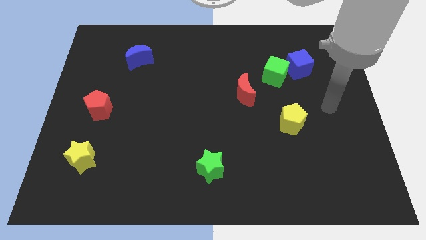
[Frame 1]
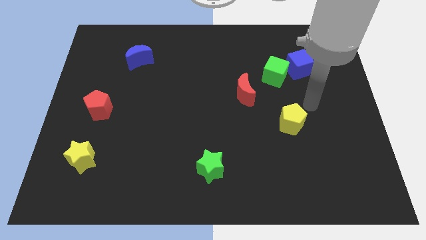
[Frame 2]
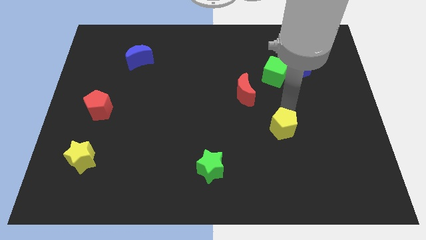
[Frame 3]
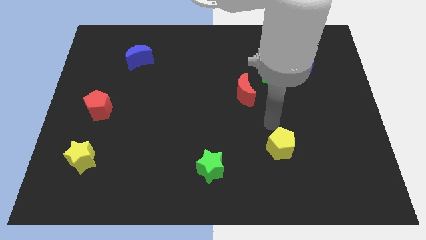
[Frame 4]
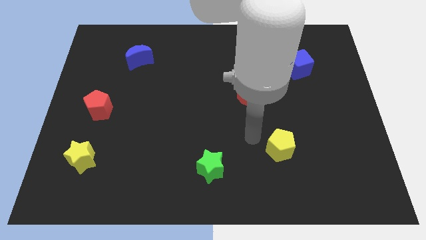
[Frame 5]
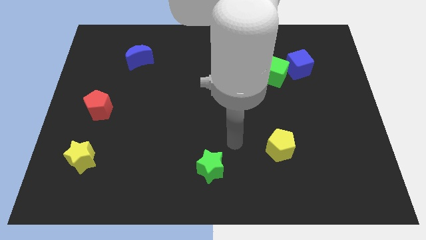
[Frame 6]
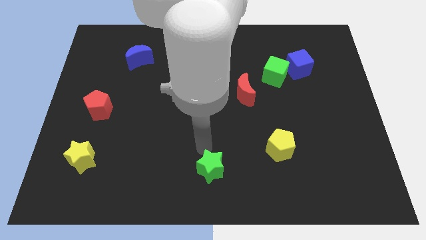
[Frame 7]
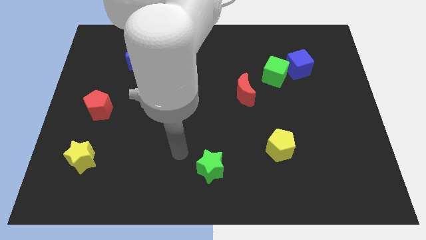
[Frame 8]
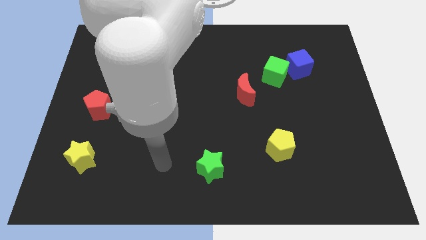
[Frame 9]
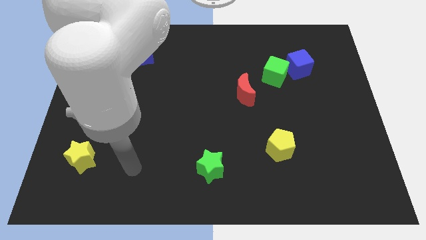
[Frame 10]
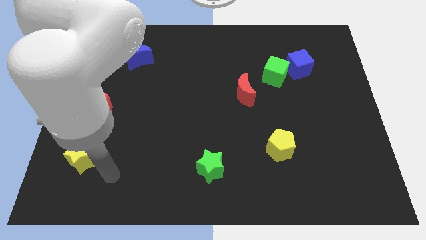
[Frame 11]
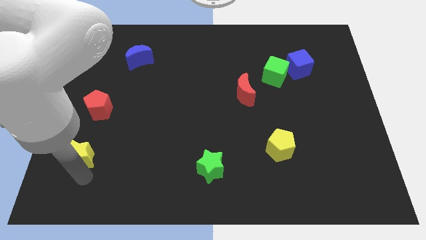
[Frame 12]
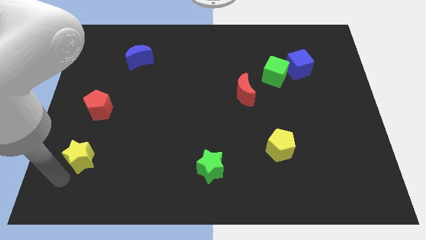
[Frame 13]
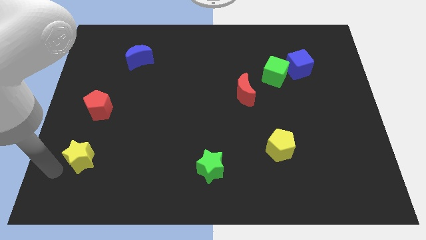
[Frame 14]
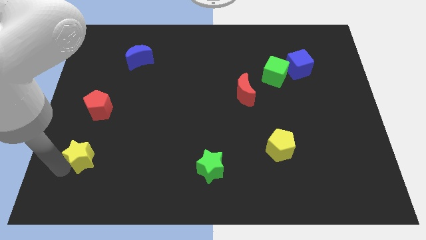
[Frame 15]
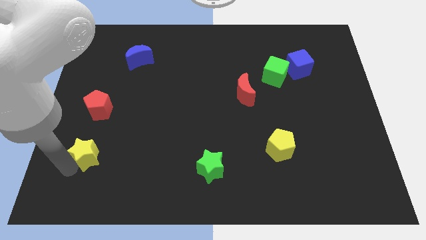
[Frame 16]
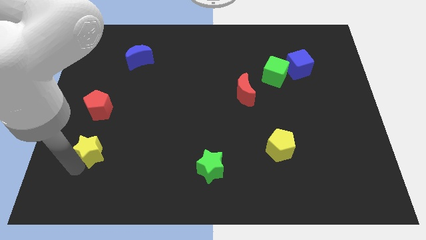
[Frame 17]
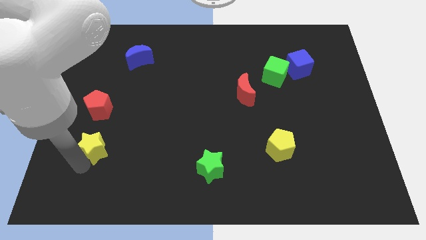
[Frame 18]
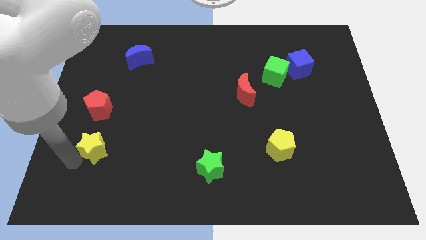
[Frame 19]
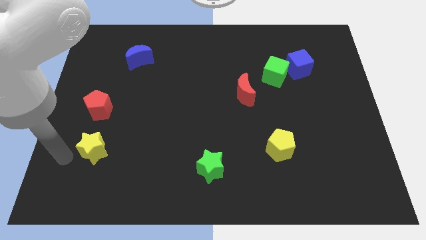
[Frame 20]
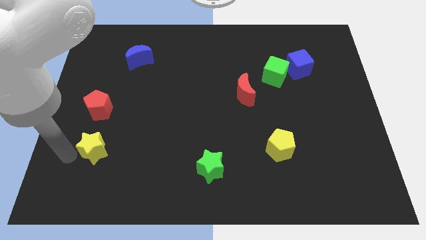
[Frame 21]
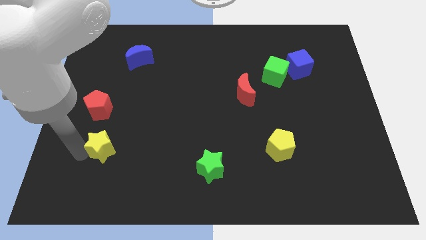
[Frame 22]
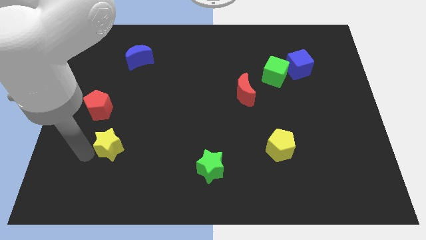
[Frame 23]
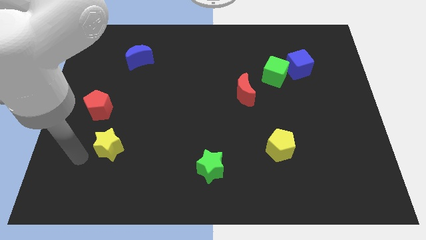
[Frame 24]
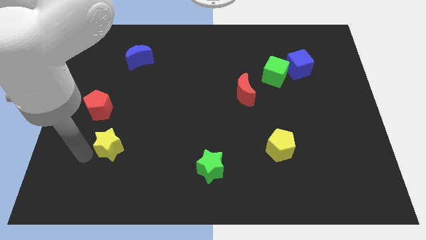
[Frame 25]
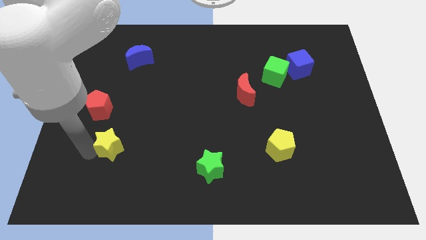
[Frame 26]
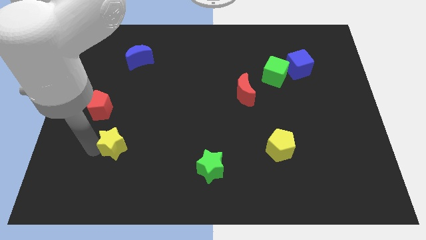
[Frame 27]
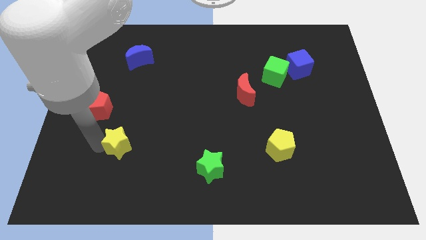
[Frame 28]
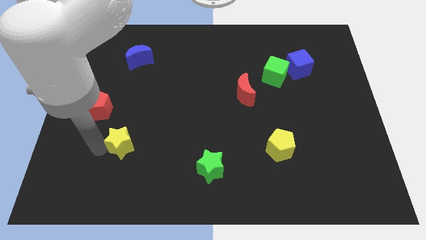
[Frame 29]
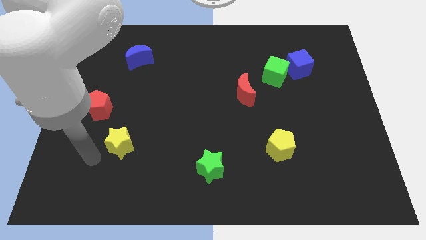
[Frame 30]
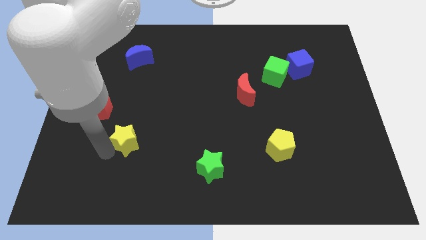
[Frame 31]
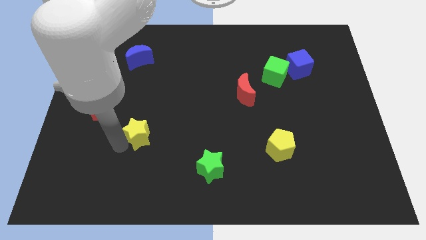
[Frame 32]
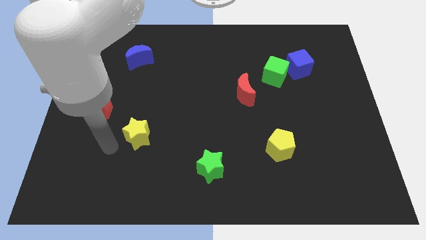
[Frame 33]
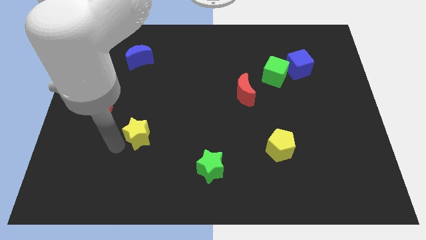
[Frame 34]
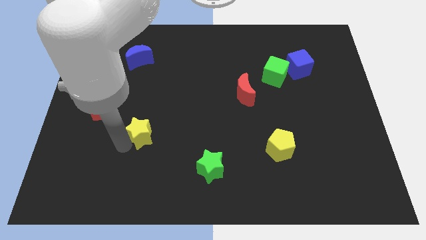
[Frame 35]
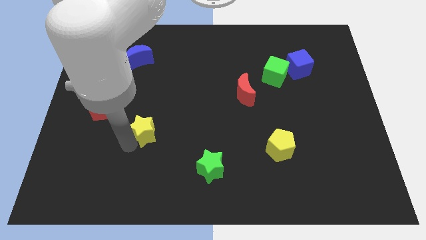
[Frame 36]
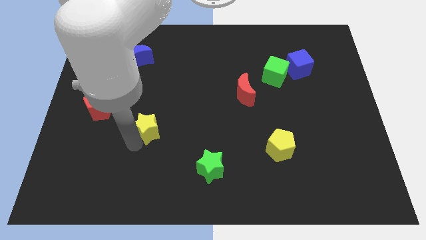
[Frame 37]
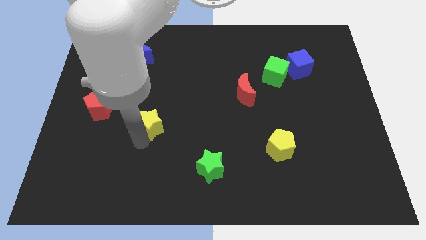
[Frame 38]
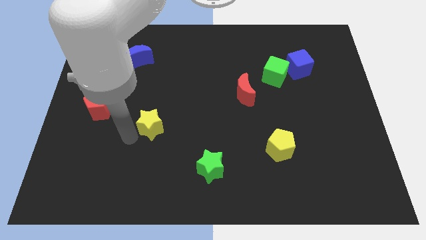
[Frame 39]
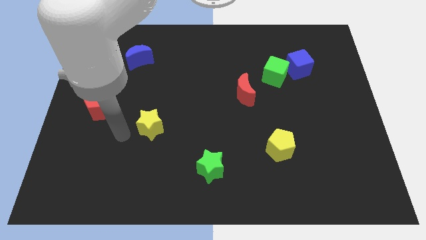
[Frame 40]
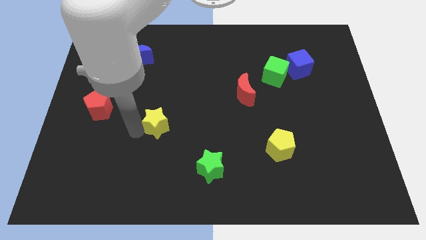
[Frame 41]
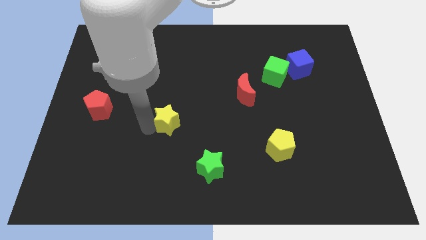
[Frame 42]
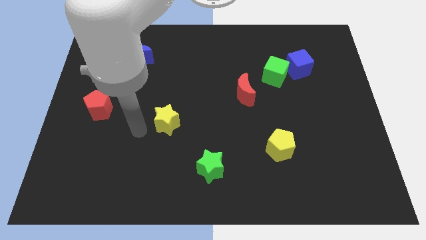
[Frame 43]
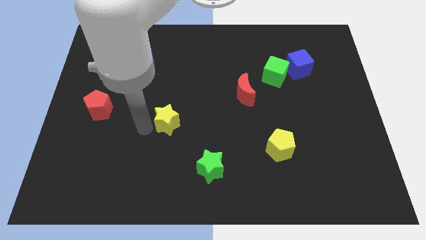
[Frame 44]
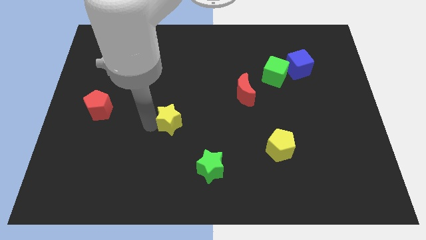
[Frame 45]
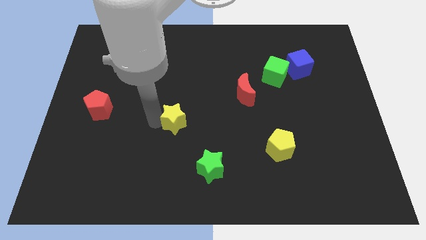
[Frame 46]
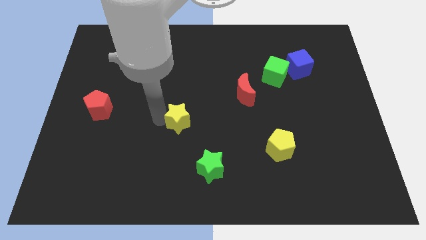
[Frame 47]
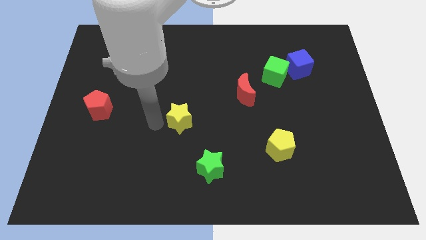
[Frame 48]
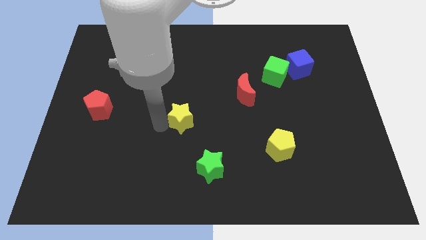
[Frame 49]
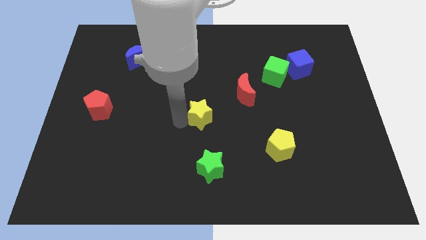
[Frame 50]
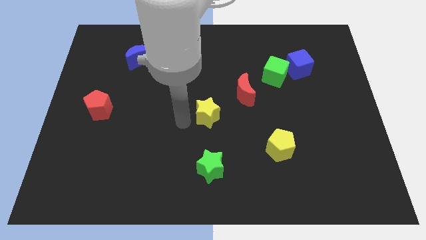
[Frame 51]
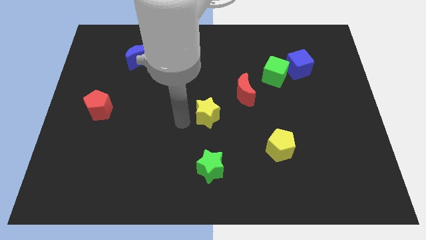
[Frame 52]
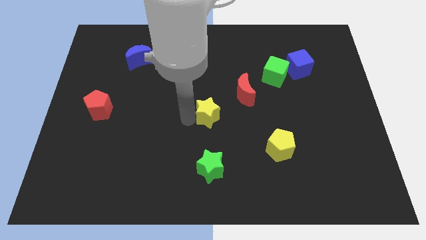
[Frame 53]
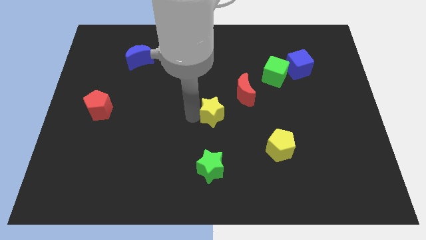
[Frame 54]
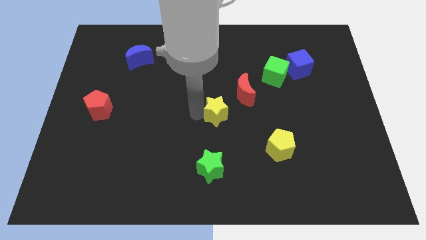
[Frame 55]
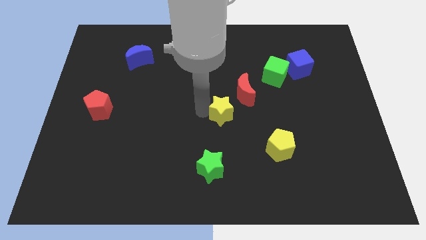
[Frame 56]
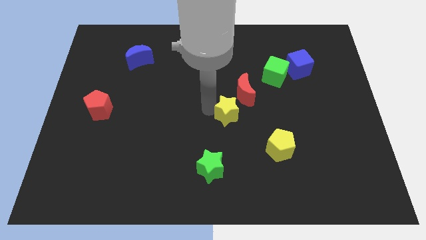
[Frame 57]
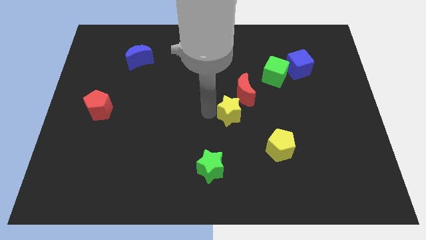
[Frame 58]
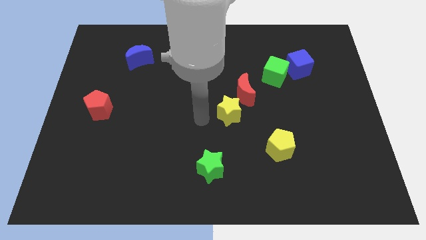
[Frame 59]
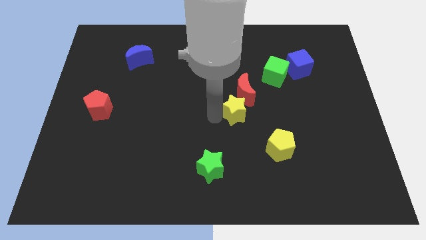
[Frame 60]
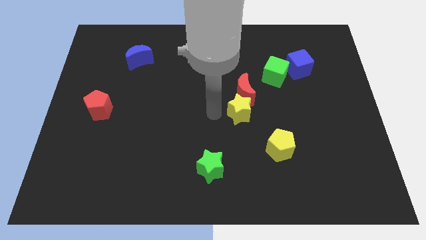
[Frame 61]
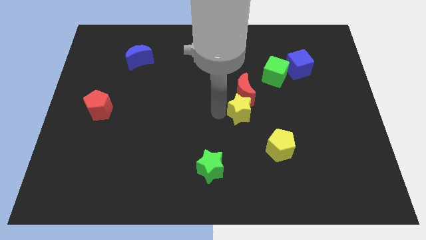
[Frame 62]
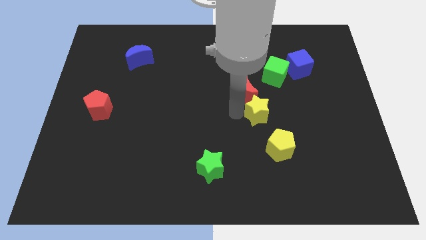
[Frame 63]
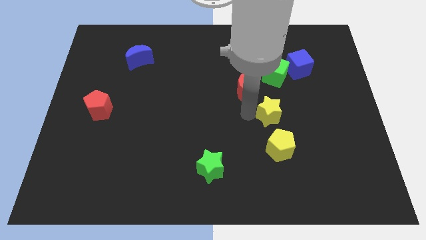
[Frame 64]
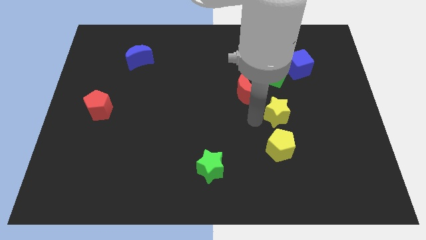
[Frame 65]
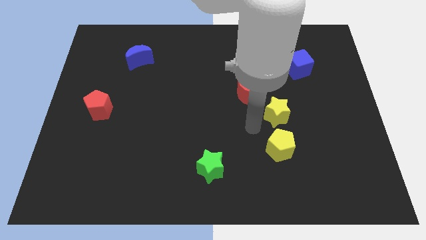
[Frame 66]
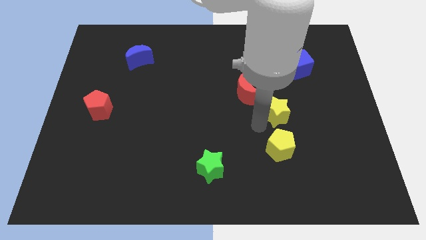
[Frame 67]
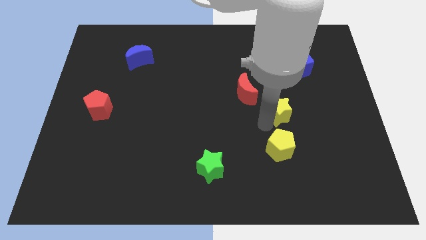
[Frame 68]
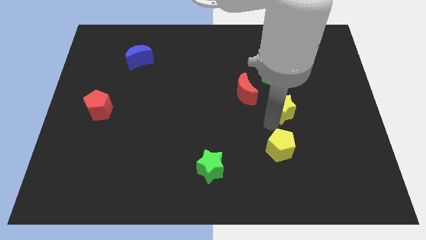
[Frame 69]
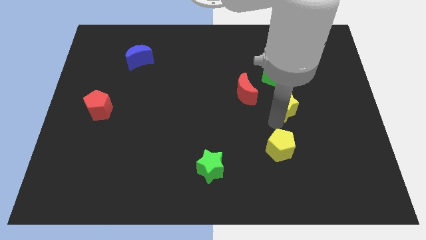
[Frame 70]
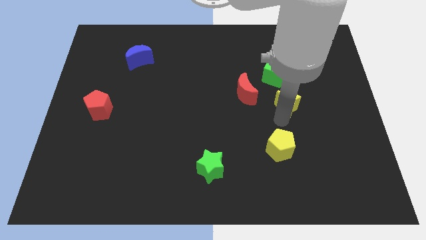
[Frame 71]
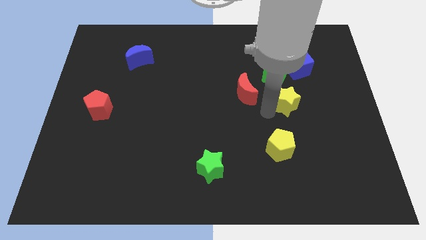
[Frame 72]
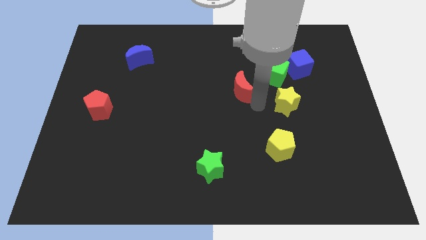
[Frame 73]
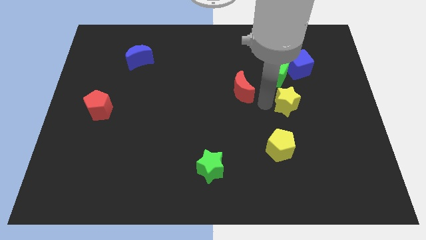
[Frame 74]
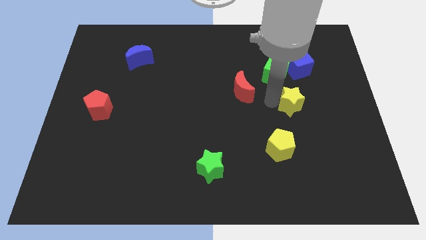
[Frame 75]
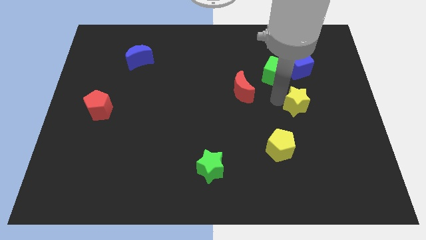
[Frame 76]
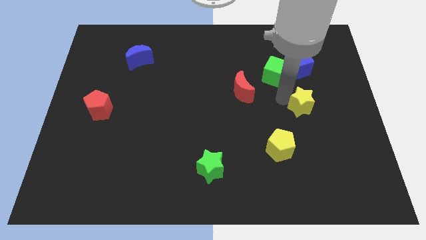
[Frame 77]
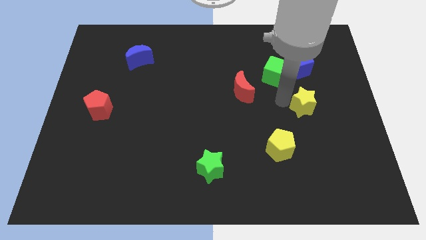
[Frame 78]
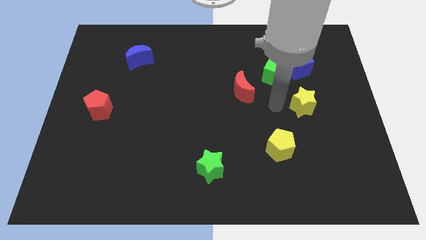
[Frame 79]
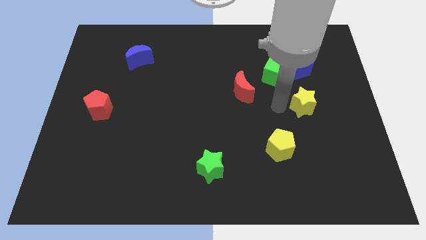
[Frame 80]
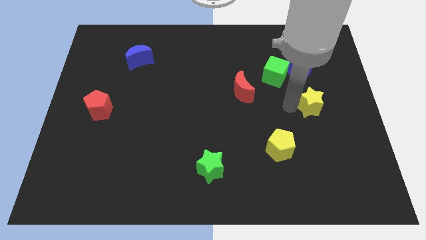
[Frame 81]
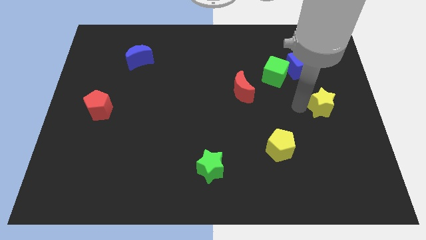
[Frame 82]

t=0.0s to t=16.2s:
put the yellow star to the right side
